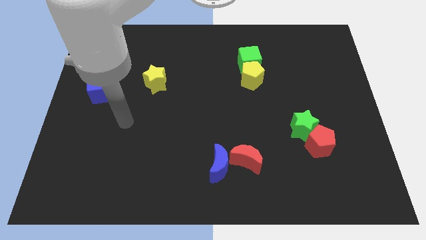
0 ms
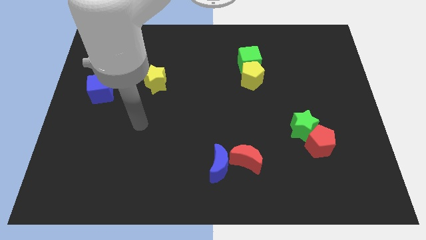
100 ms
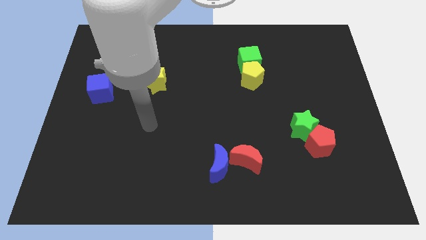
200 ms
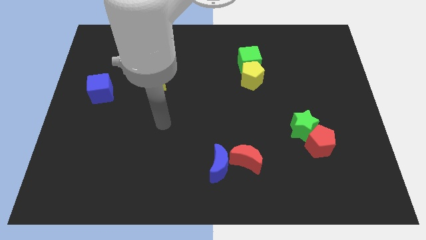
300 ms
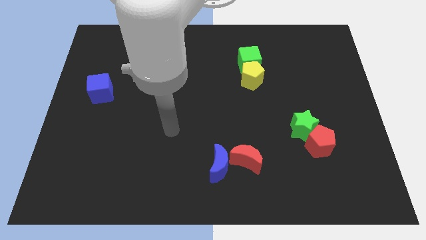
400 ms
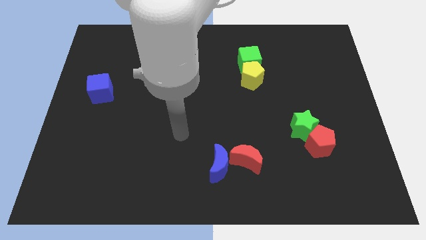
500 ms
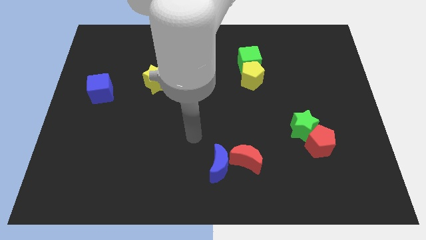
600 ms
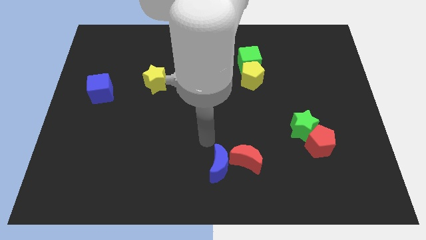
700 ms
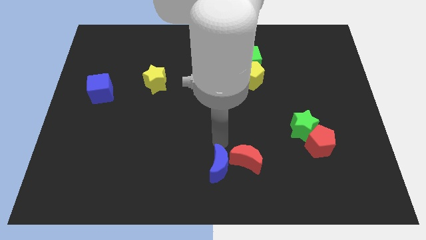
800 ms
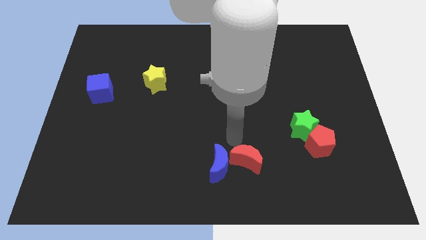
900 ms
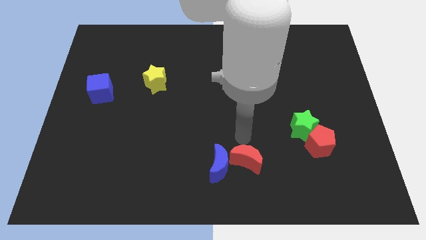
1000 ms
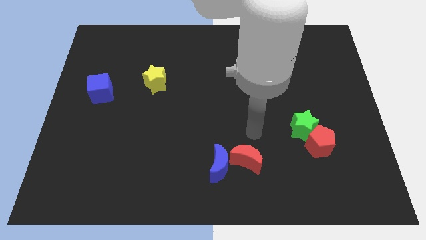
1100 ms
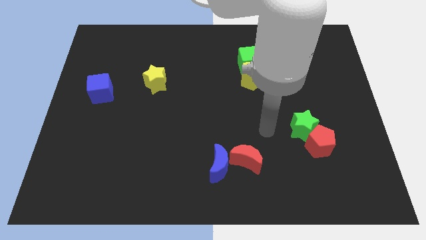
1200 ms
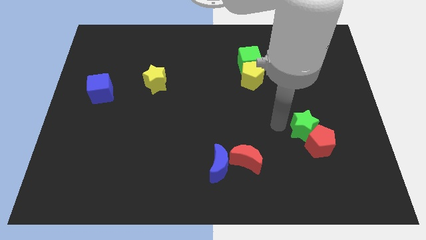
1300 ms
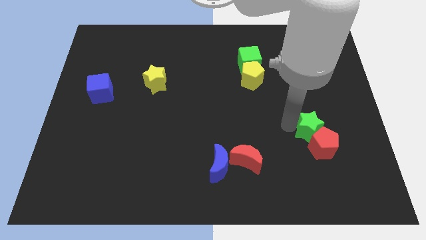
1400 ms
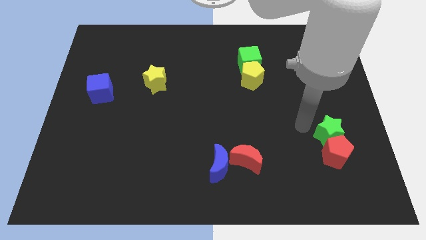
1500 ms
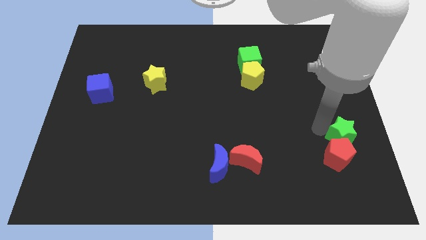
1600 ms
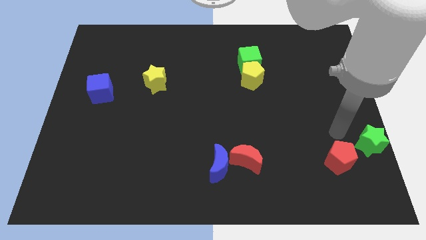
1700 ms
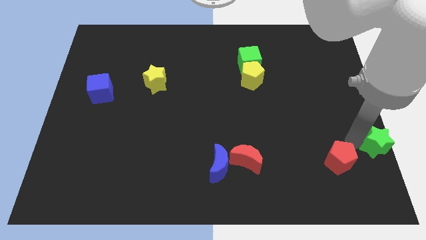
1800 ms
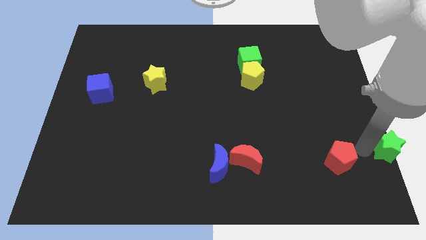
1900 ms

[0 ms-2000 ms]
move the red pentagon away from the green star

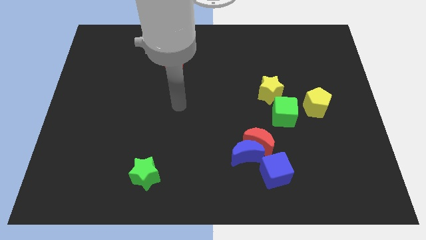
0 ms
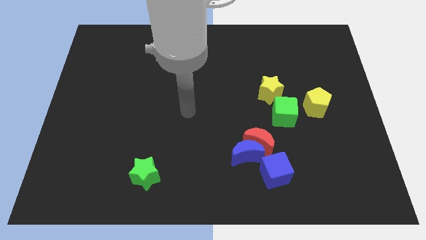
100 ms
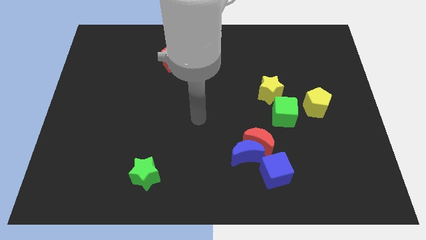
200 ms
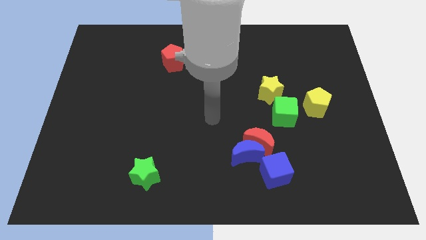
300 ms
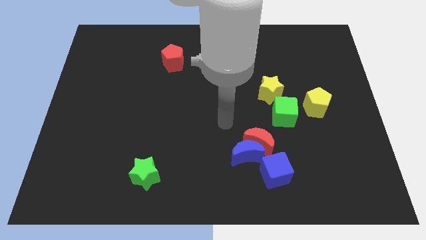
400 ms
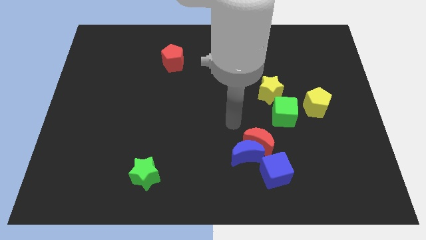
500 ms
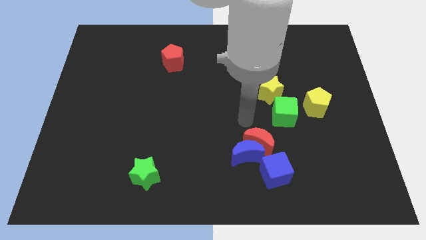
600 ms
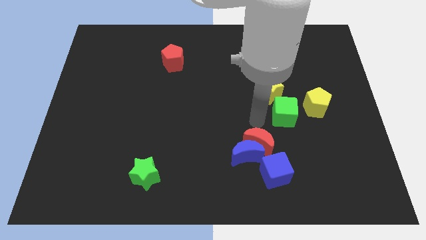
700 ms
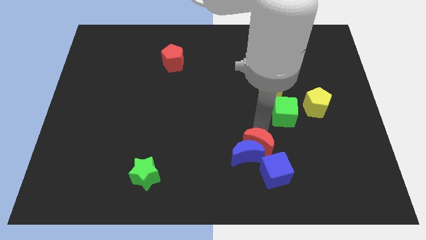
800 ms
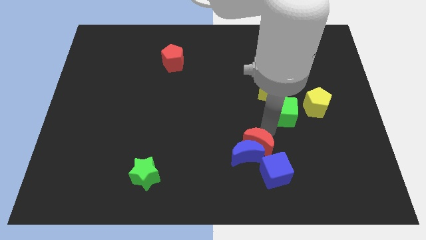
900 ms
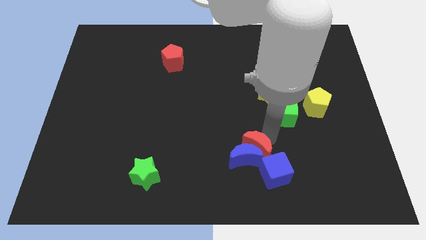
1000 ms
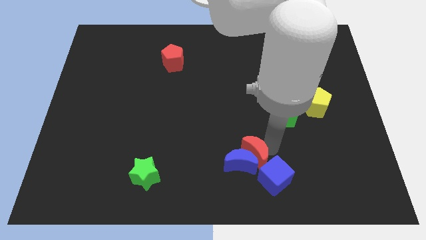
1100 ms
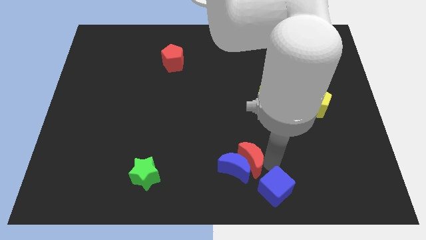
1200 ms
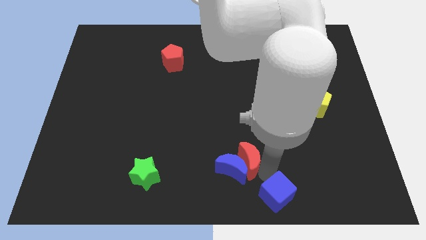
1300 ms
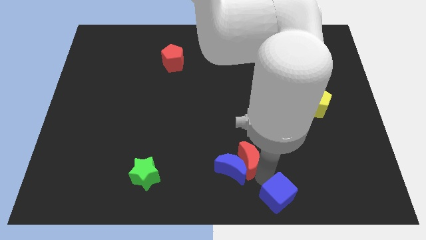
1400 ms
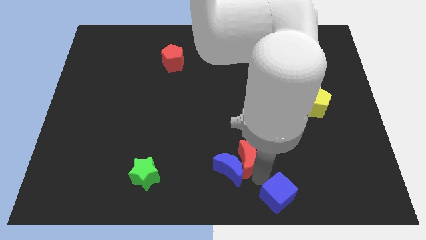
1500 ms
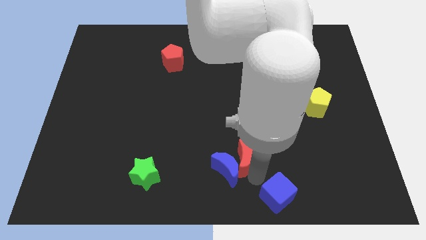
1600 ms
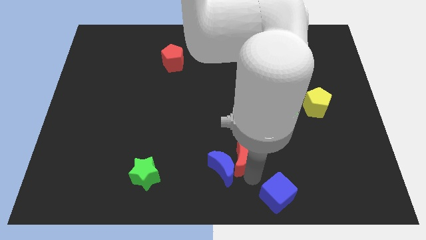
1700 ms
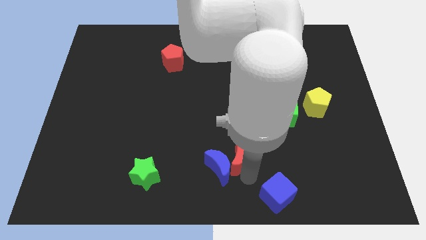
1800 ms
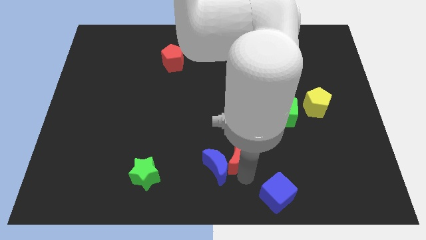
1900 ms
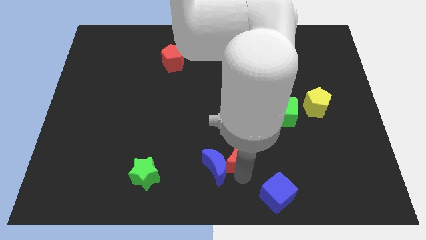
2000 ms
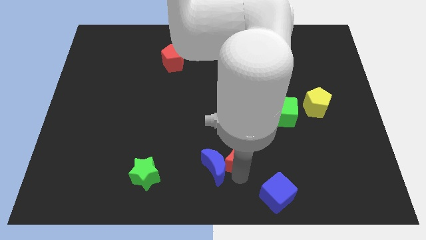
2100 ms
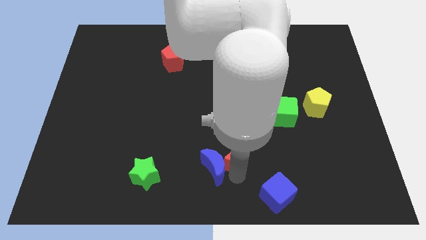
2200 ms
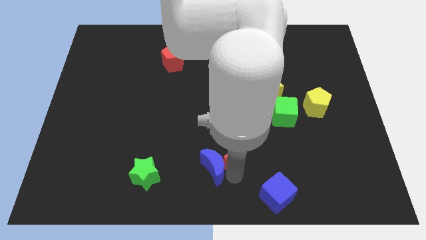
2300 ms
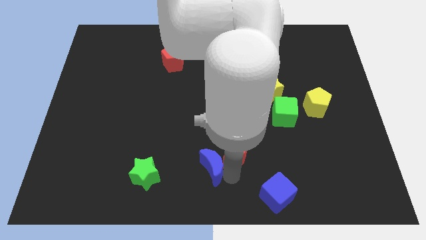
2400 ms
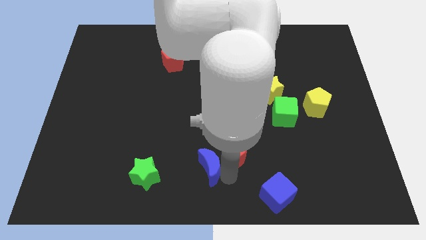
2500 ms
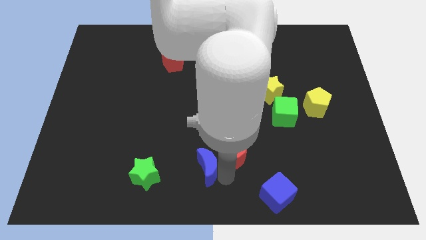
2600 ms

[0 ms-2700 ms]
pull the blue moon apart from the red moon and blue cube

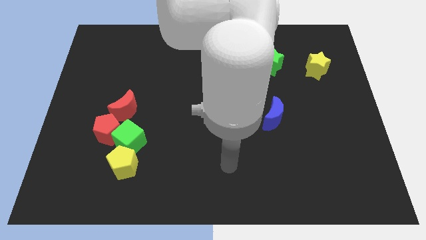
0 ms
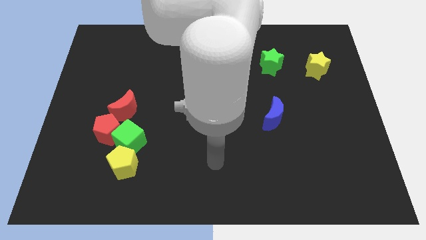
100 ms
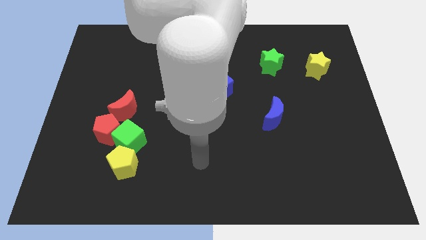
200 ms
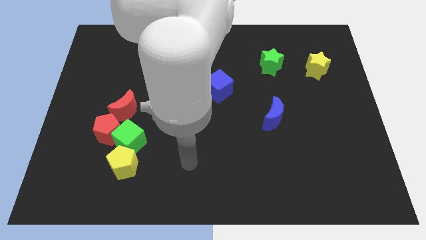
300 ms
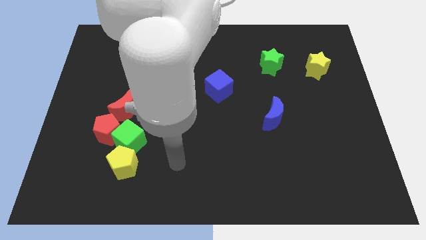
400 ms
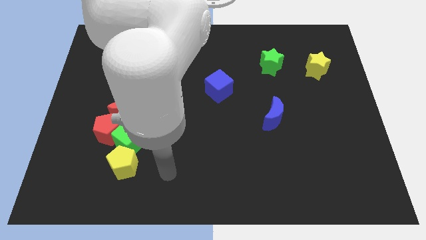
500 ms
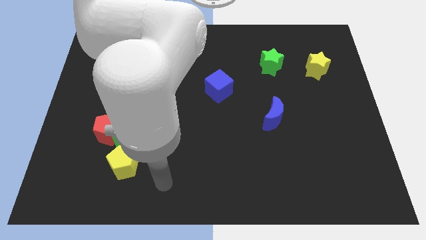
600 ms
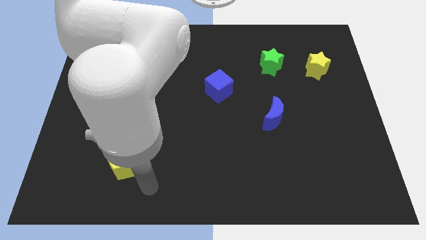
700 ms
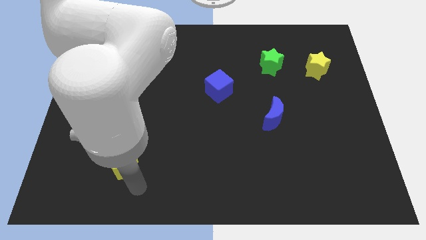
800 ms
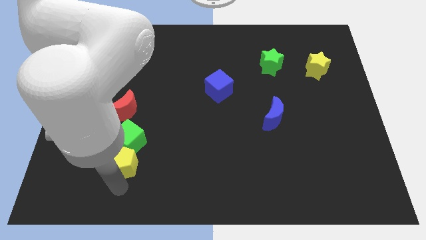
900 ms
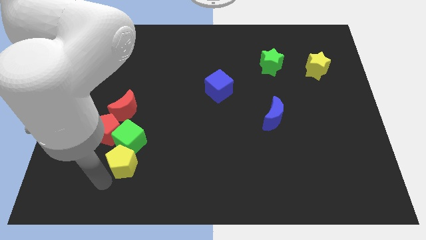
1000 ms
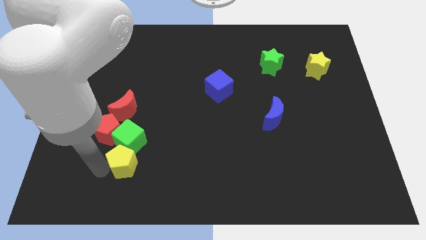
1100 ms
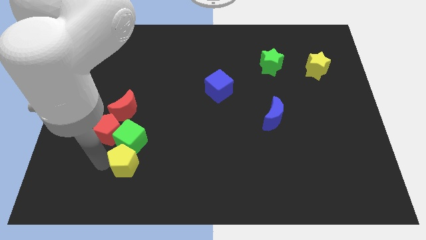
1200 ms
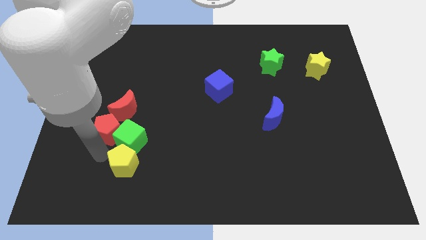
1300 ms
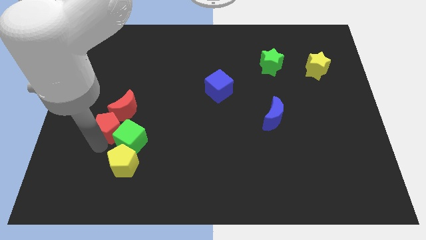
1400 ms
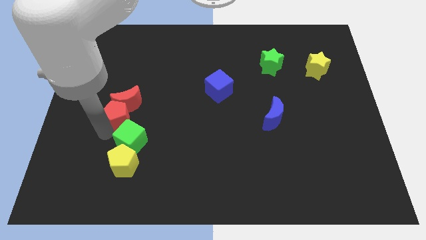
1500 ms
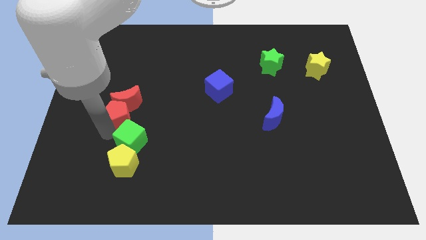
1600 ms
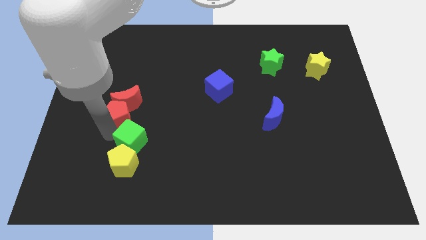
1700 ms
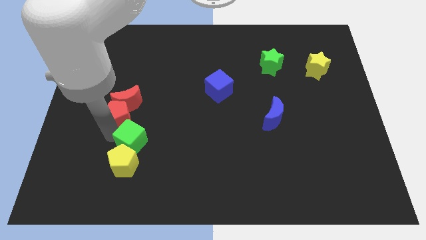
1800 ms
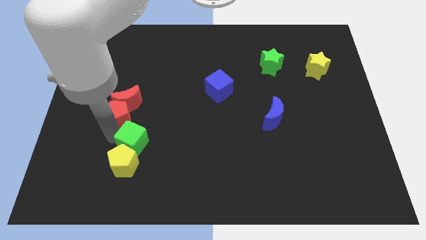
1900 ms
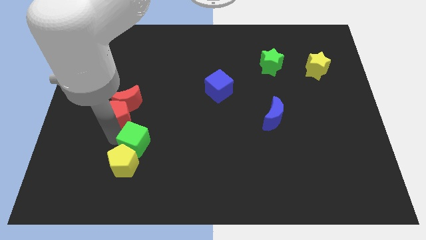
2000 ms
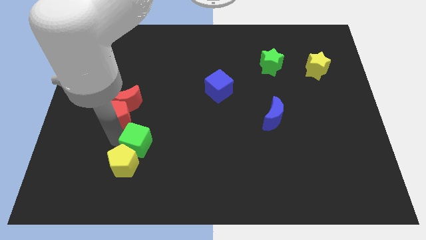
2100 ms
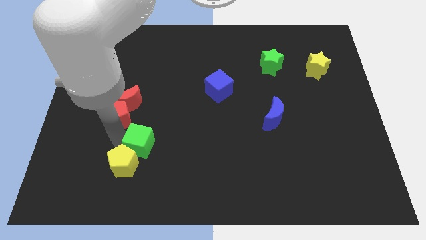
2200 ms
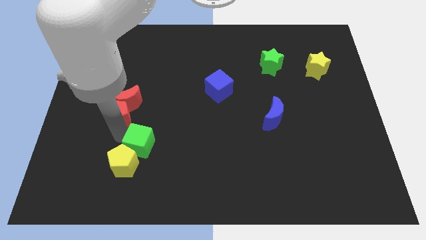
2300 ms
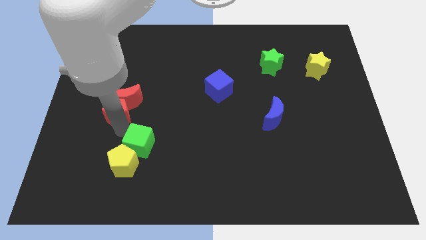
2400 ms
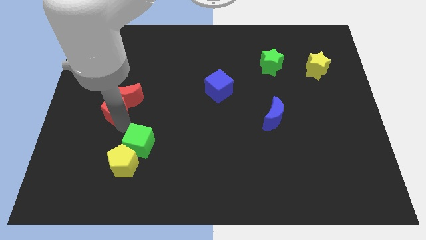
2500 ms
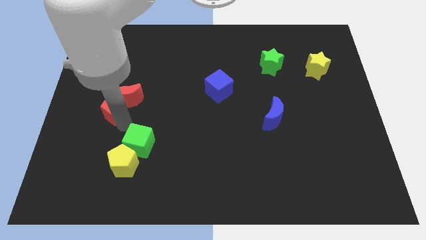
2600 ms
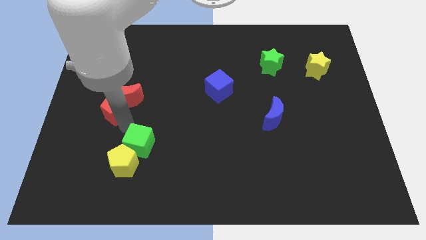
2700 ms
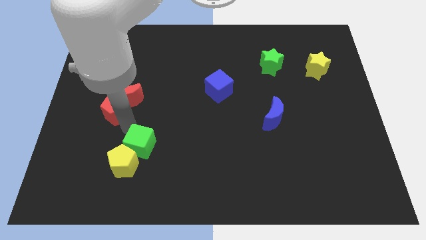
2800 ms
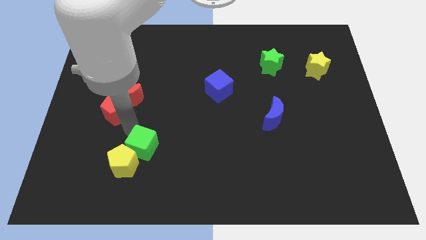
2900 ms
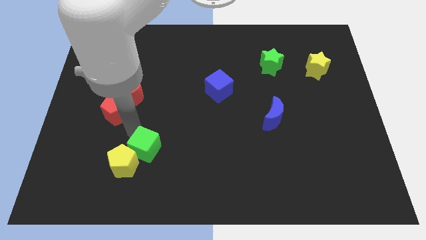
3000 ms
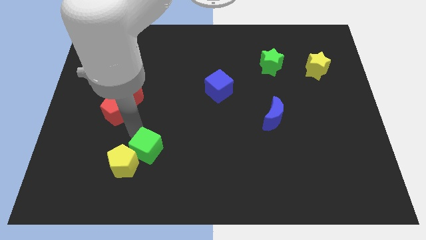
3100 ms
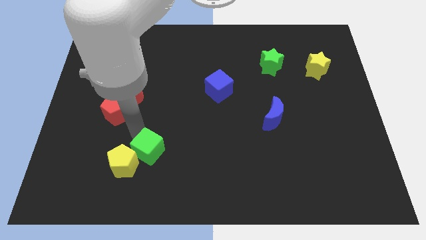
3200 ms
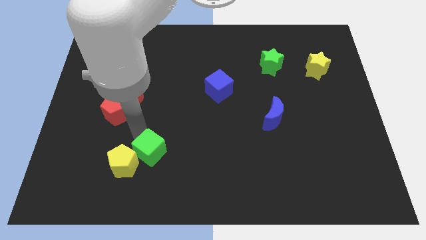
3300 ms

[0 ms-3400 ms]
separate the green cube from the clump

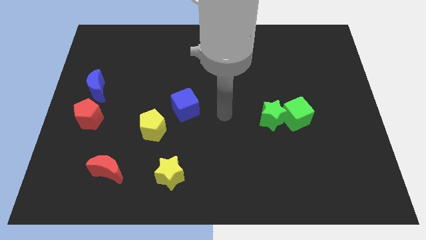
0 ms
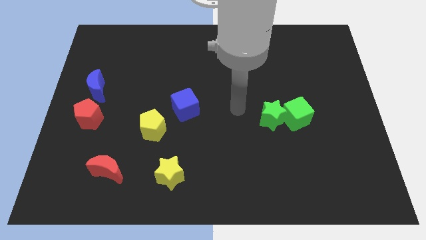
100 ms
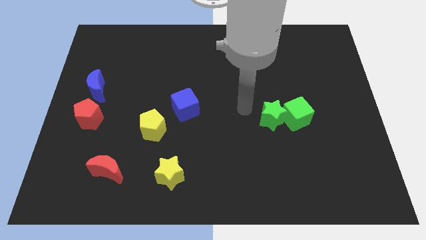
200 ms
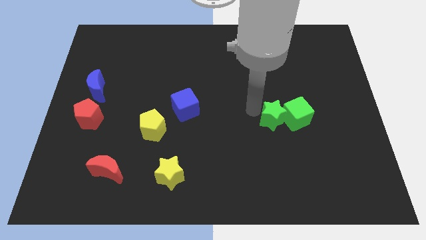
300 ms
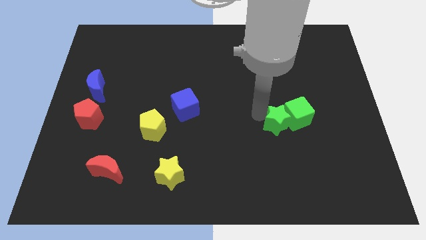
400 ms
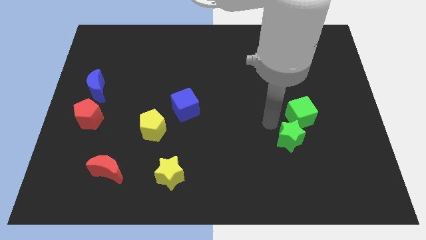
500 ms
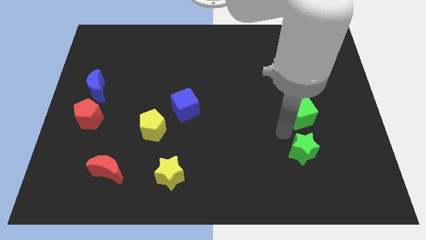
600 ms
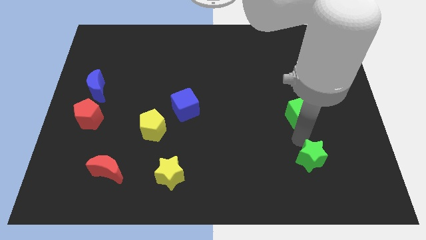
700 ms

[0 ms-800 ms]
separate the green cube from the green star

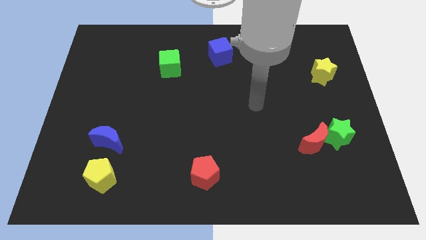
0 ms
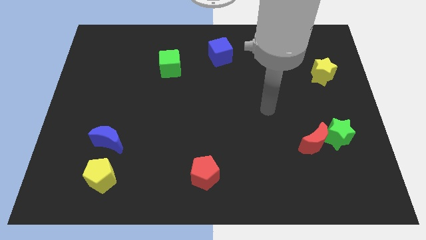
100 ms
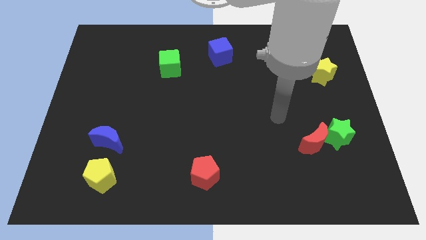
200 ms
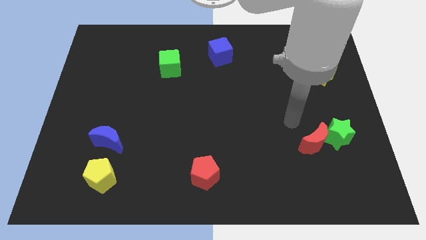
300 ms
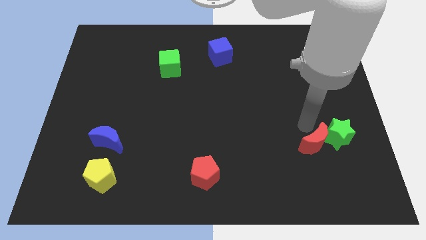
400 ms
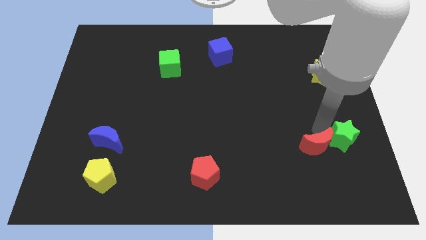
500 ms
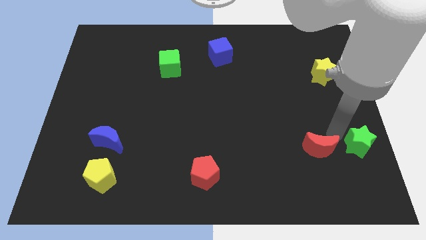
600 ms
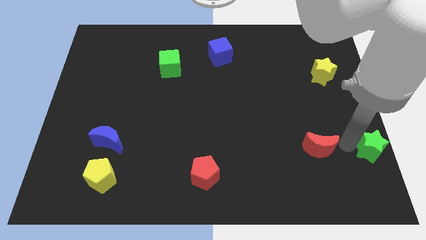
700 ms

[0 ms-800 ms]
separate the red moon from the green star
